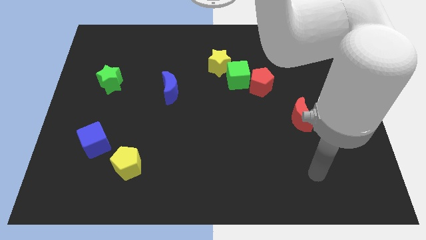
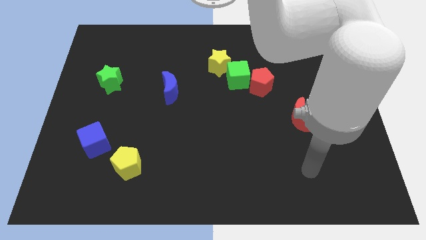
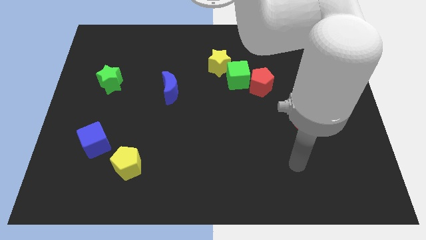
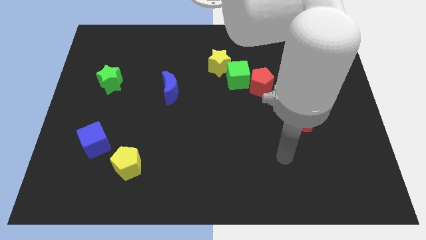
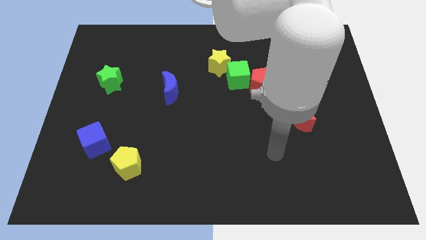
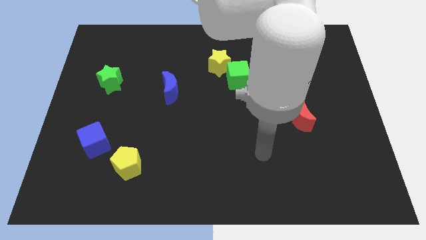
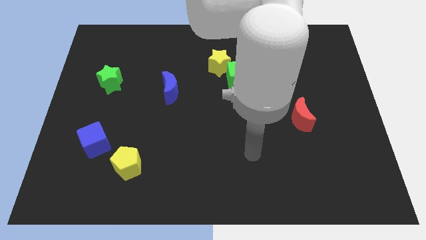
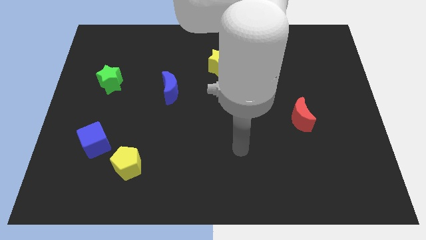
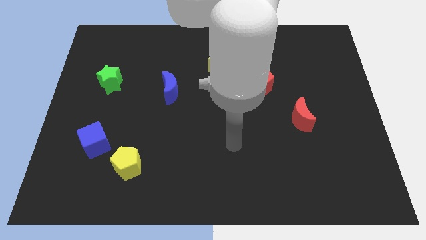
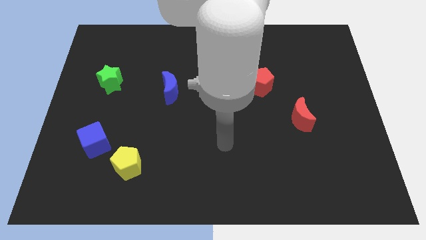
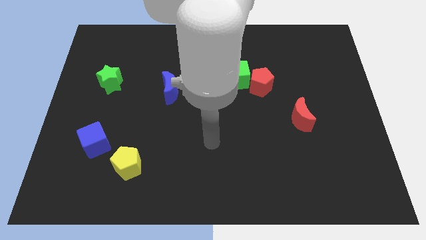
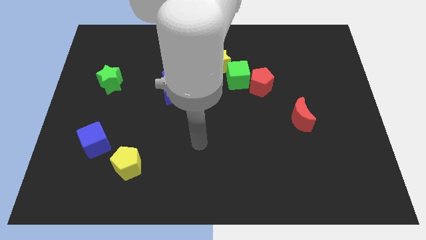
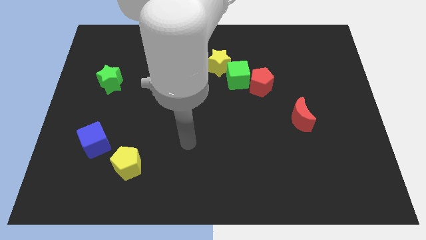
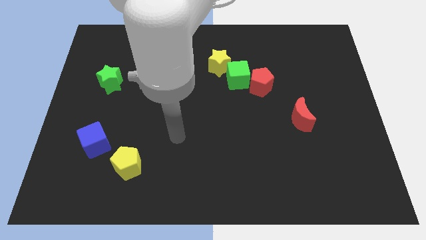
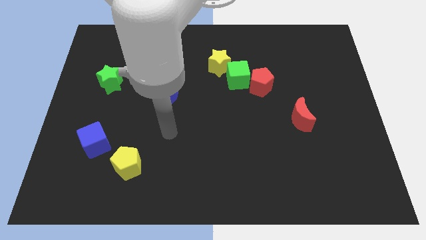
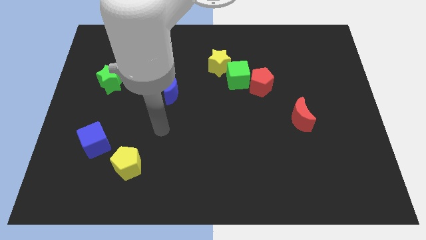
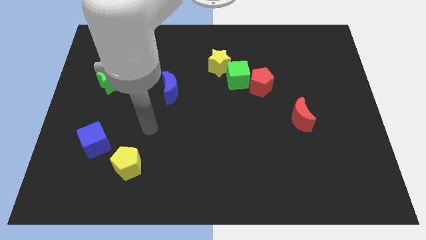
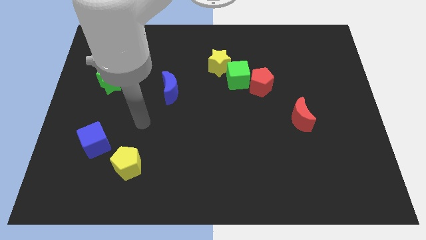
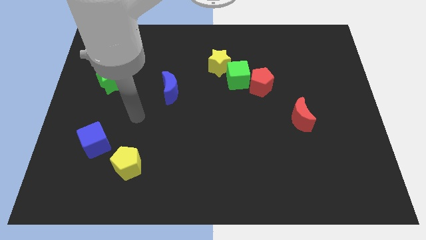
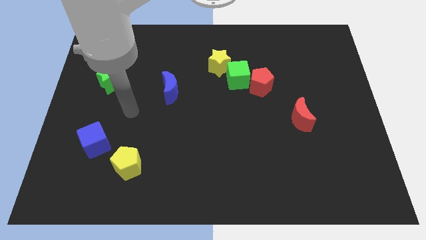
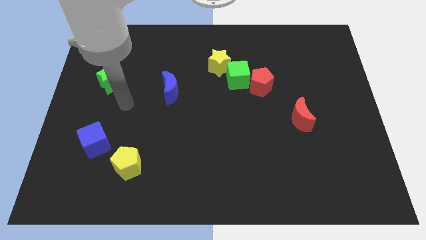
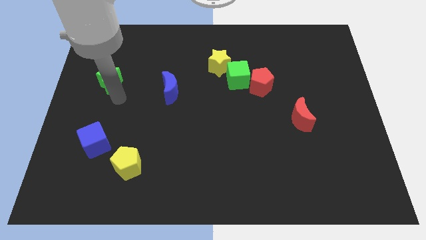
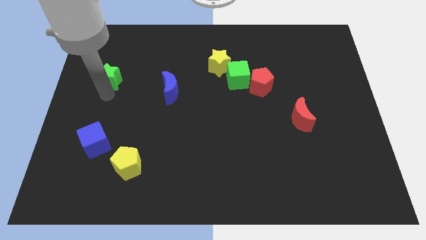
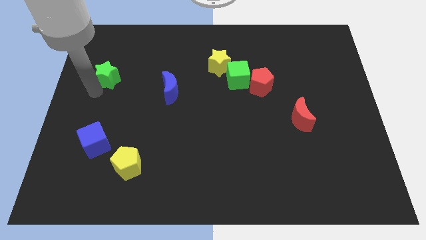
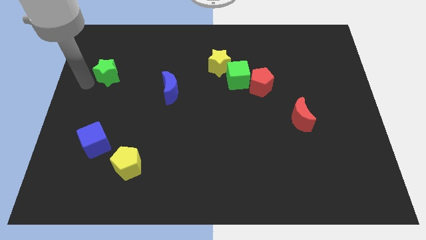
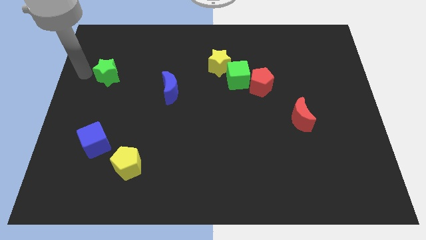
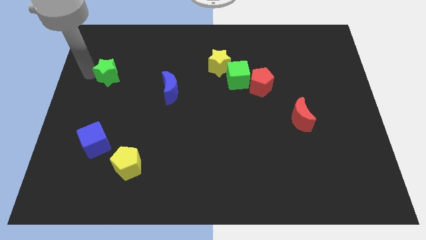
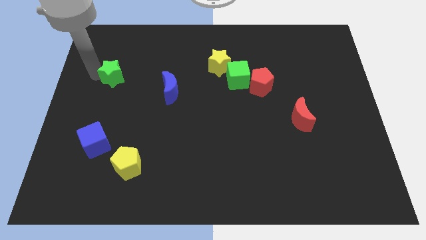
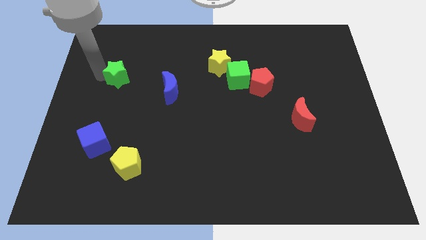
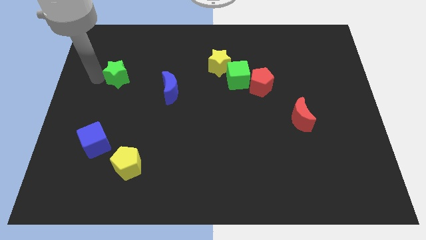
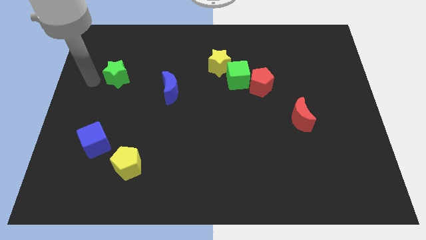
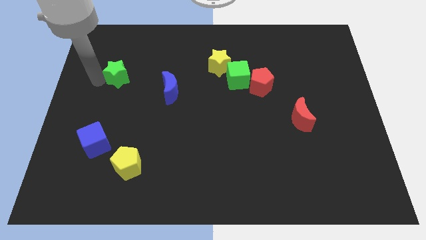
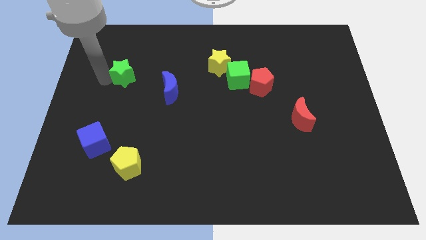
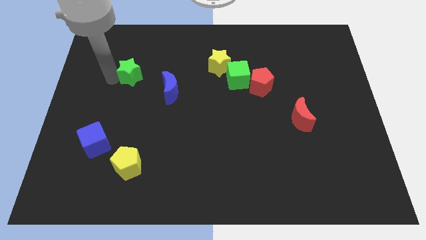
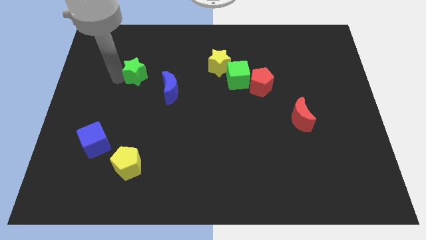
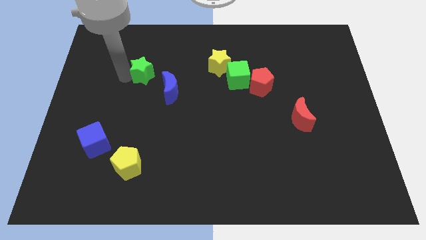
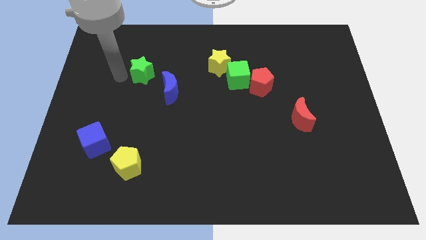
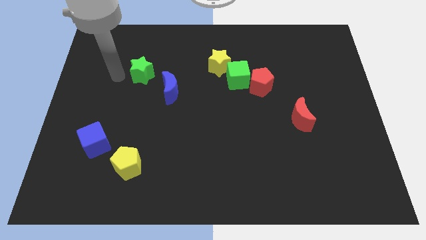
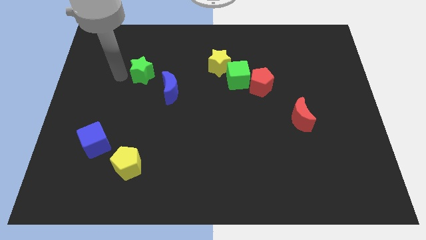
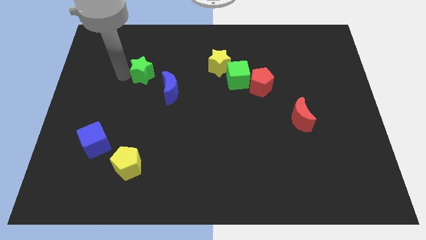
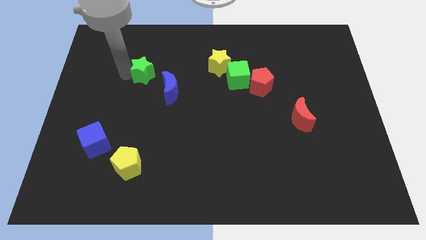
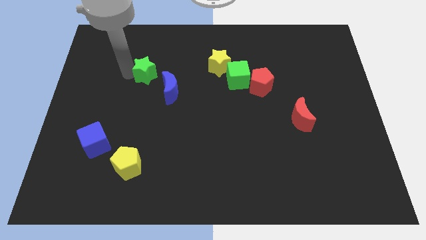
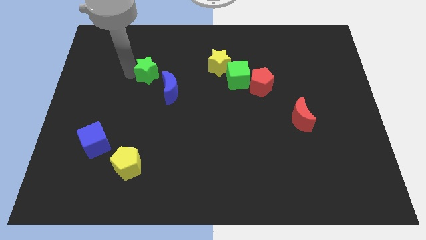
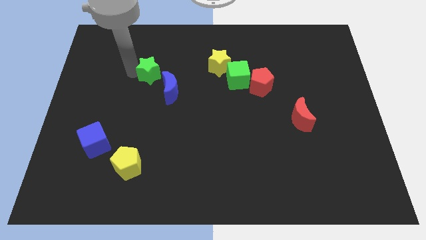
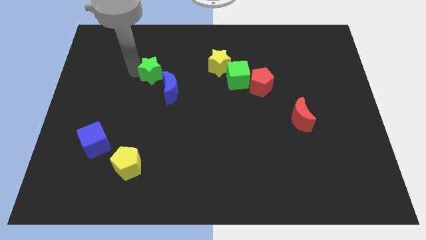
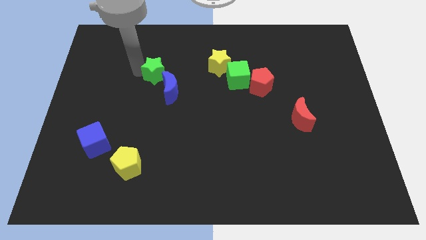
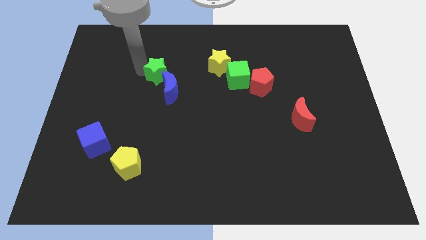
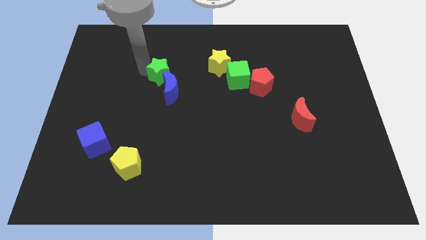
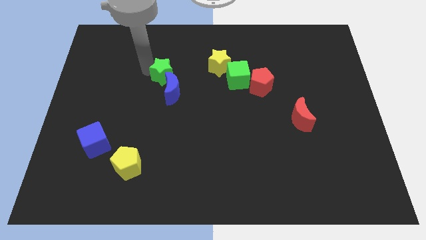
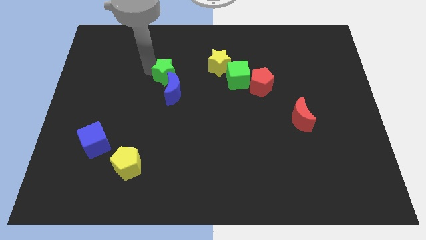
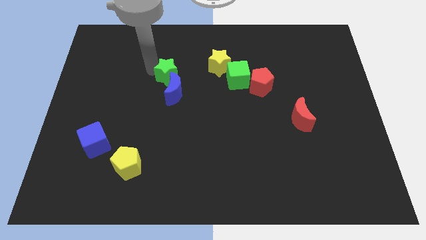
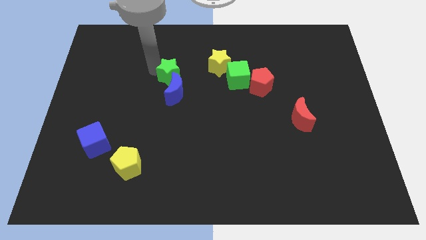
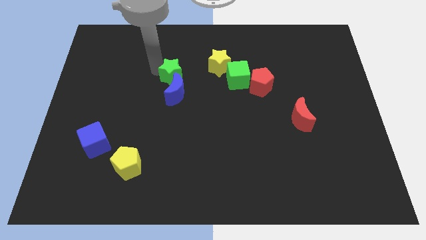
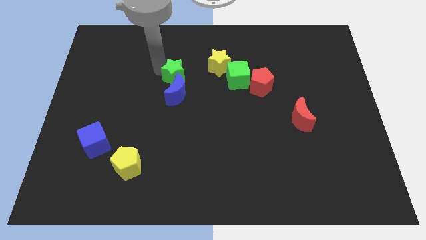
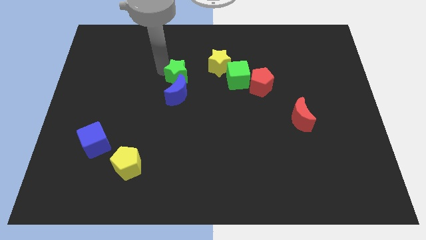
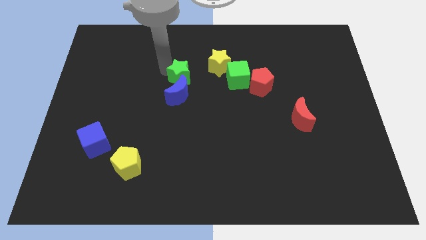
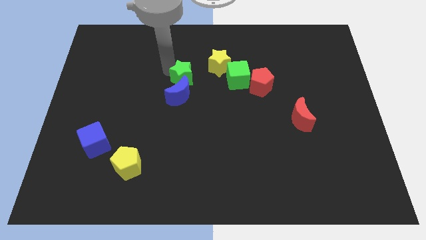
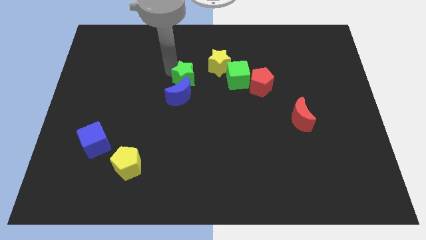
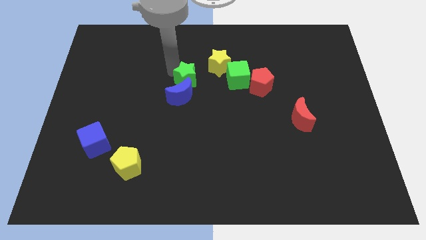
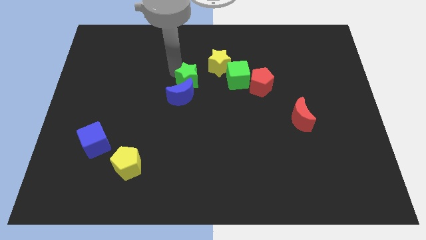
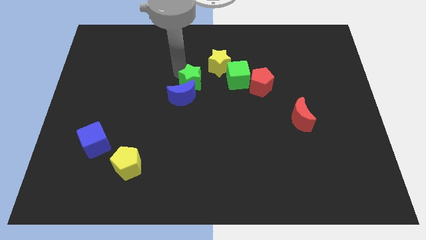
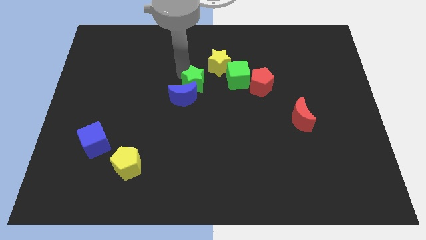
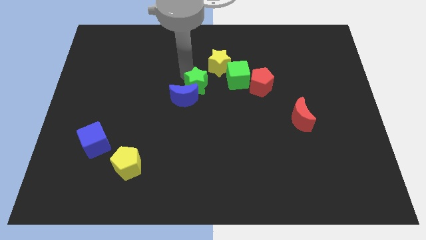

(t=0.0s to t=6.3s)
slide the green star to the right of the blue moon

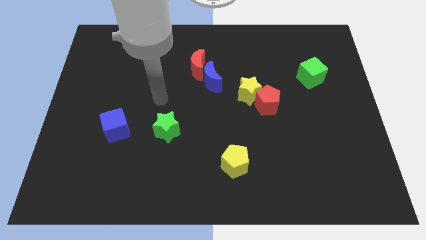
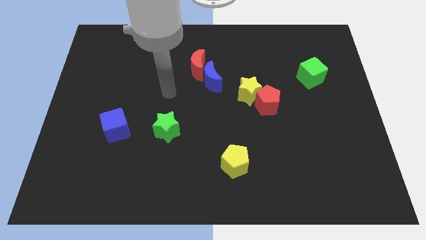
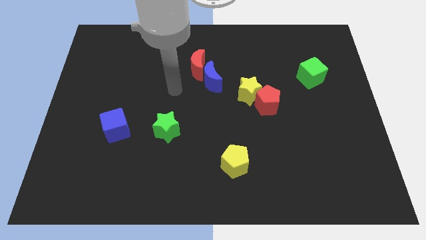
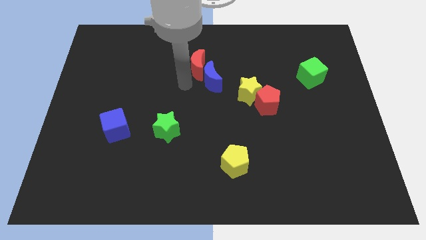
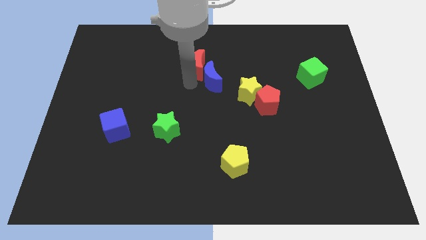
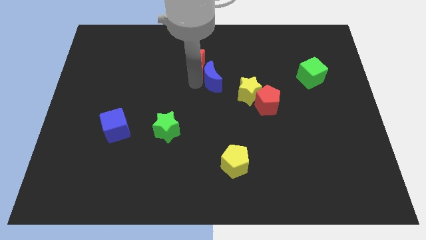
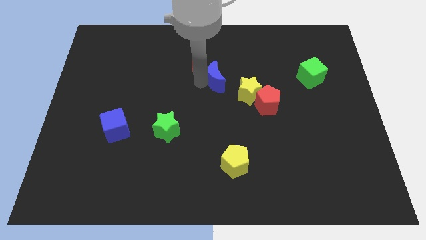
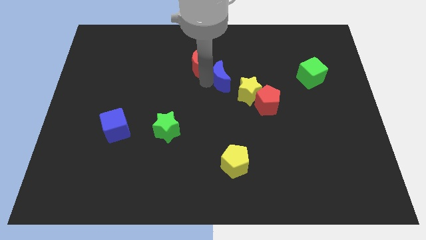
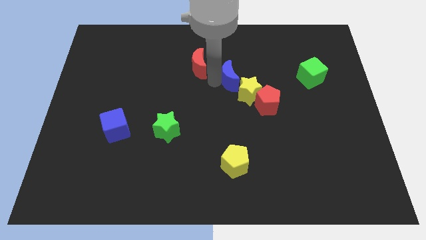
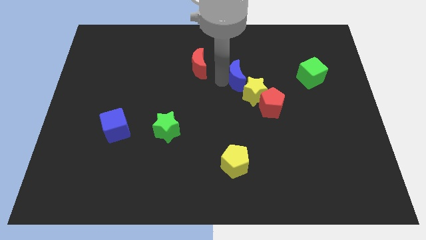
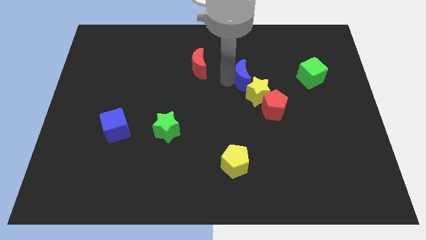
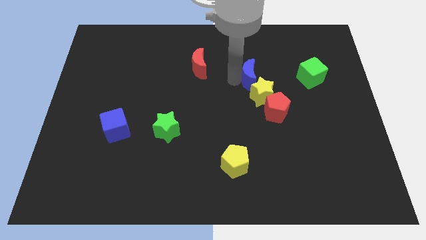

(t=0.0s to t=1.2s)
put the blue moon just left of the green cube
